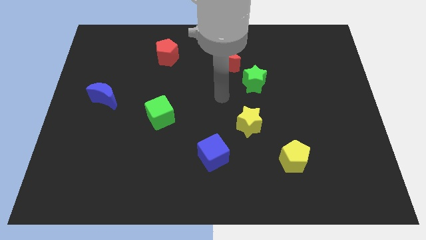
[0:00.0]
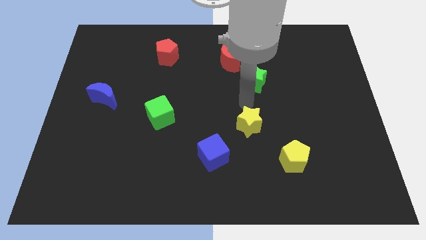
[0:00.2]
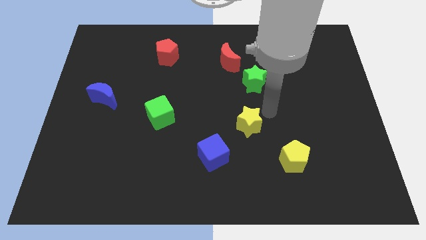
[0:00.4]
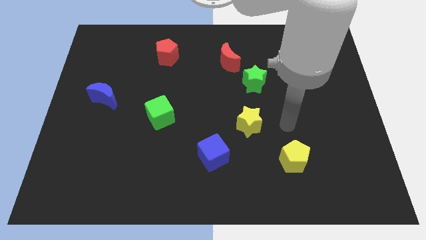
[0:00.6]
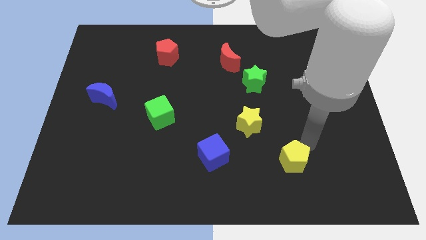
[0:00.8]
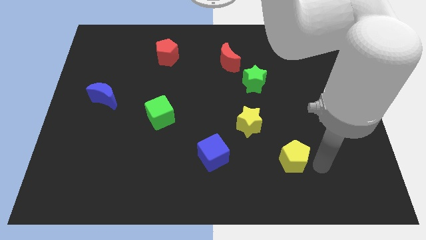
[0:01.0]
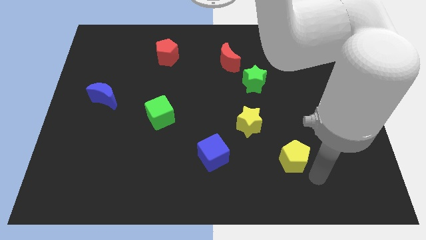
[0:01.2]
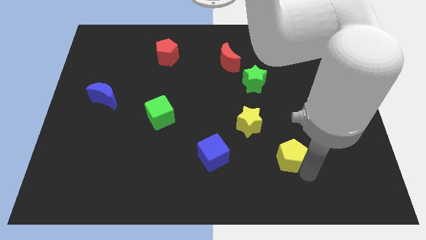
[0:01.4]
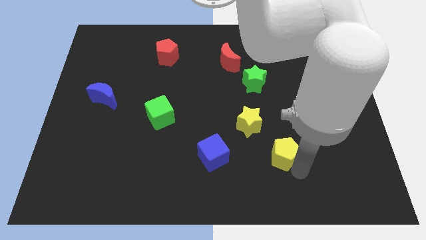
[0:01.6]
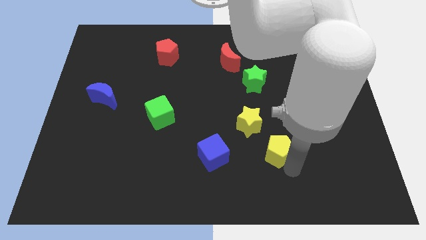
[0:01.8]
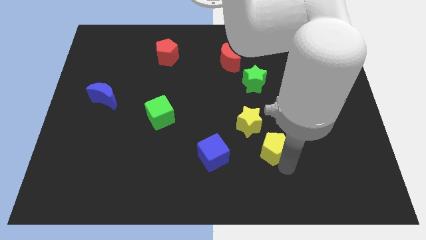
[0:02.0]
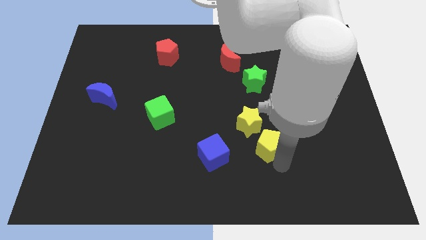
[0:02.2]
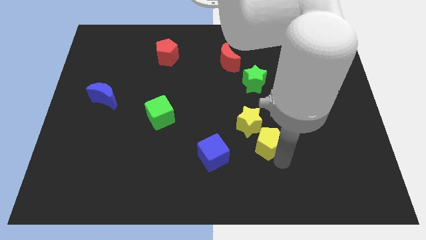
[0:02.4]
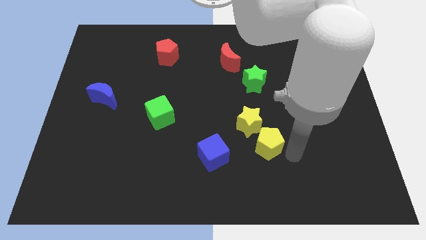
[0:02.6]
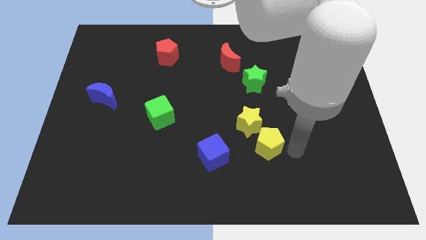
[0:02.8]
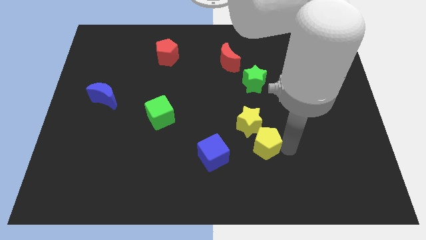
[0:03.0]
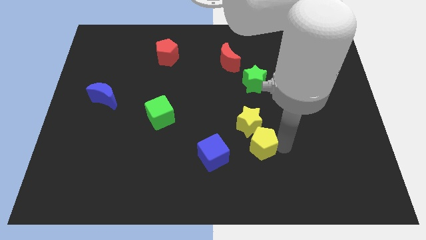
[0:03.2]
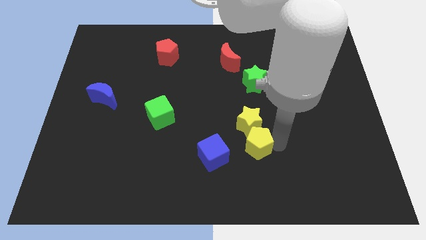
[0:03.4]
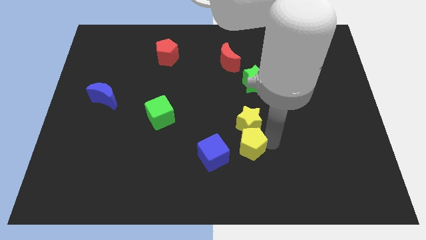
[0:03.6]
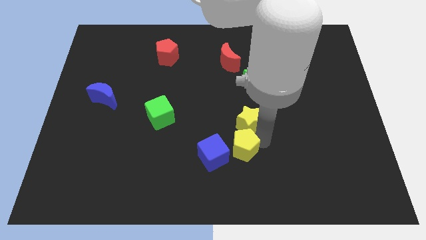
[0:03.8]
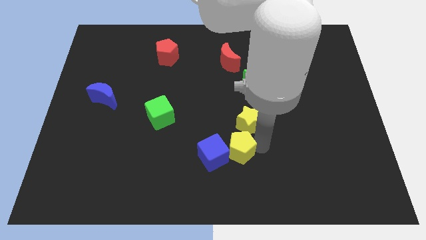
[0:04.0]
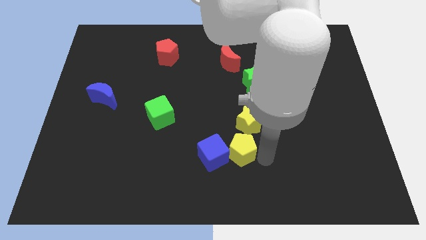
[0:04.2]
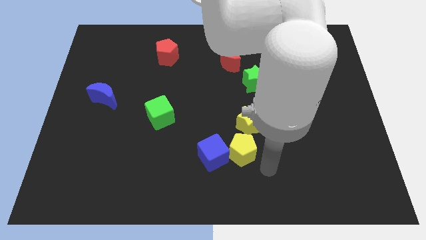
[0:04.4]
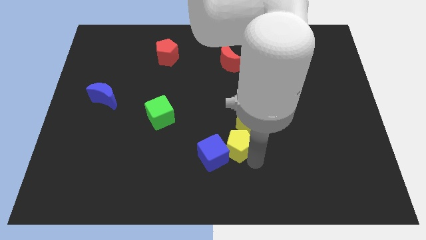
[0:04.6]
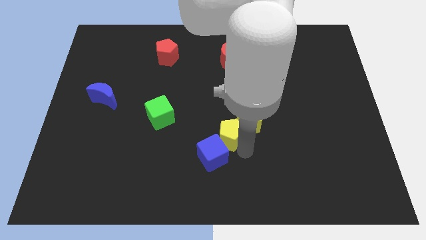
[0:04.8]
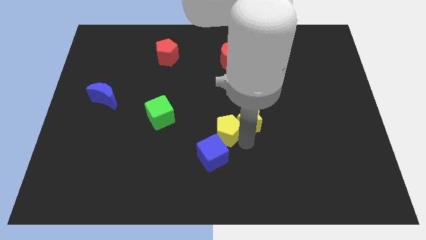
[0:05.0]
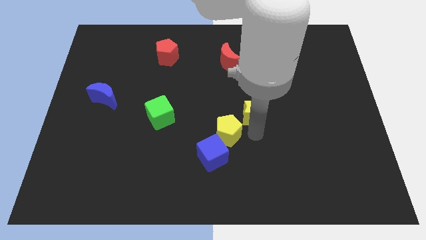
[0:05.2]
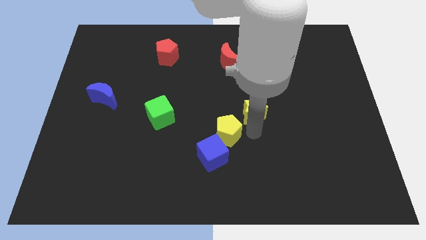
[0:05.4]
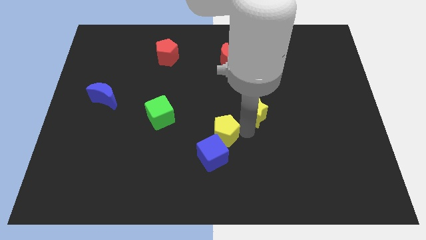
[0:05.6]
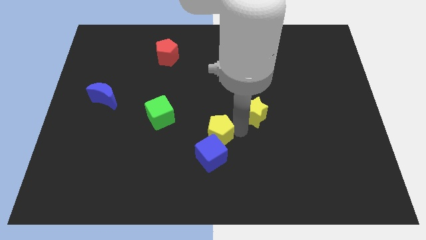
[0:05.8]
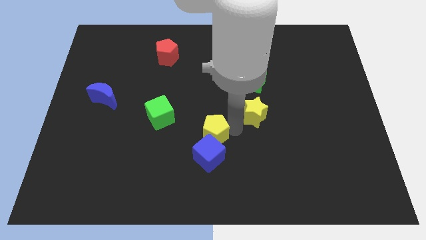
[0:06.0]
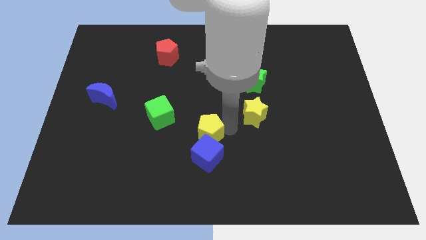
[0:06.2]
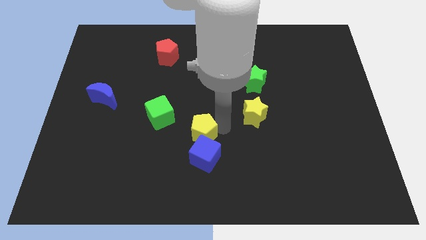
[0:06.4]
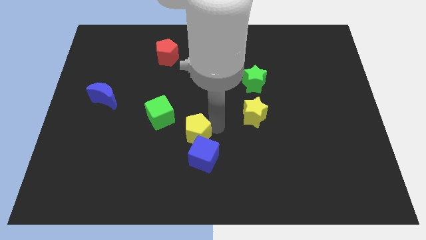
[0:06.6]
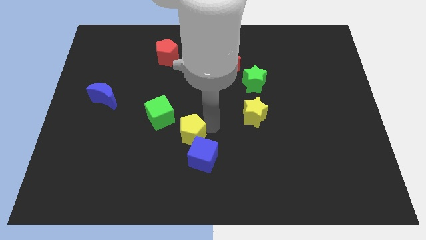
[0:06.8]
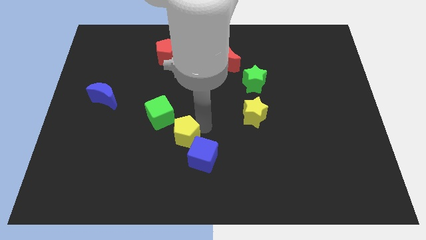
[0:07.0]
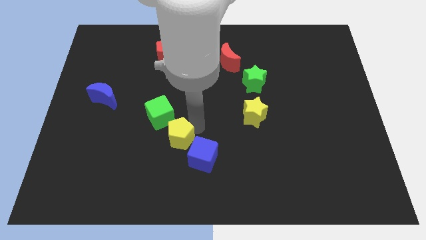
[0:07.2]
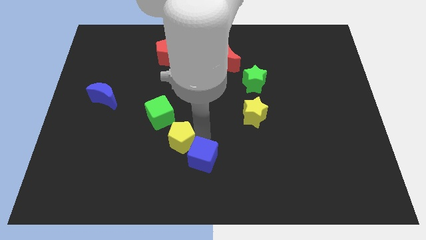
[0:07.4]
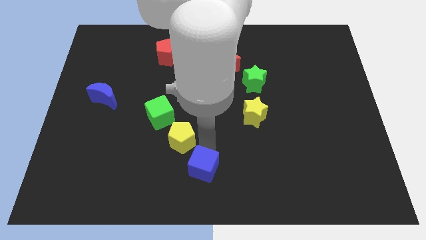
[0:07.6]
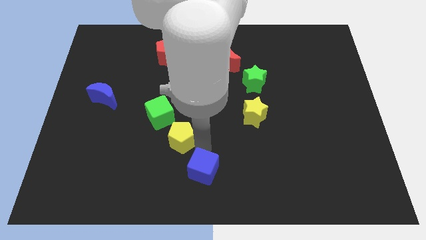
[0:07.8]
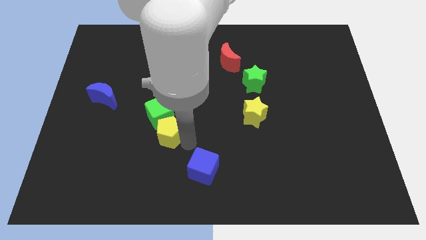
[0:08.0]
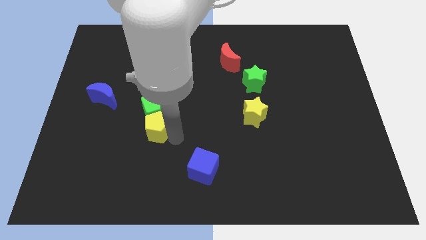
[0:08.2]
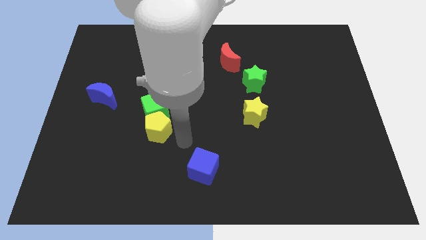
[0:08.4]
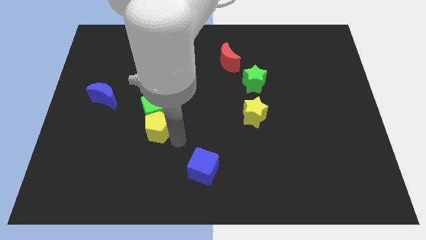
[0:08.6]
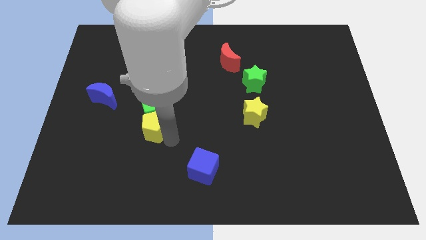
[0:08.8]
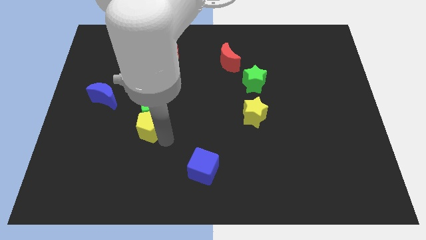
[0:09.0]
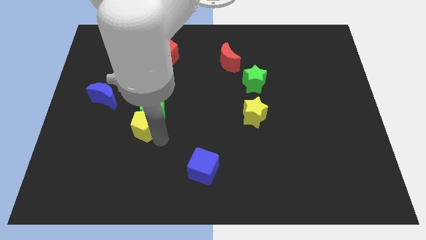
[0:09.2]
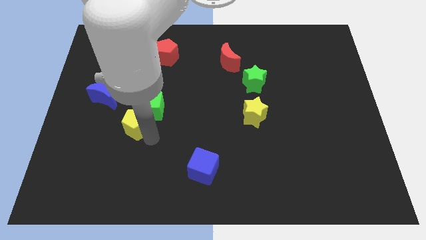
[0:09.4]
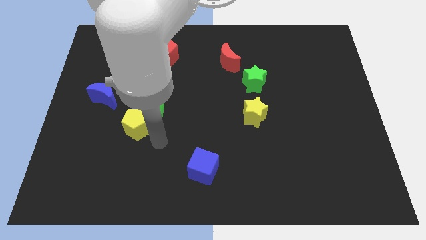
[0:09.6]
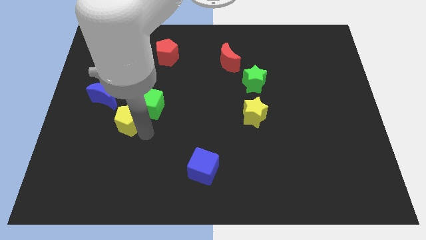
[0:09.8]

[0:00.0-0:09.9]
move the yellow pentagon left of the green cube

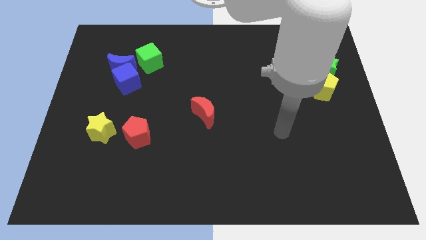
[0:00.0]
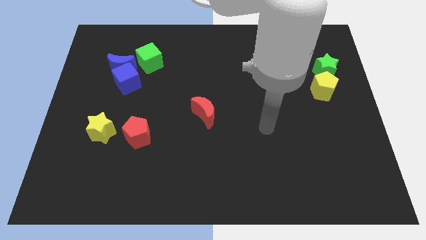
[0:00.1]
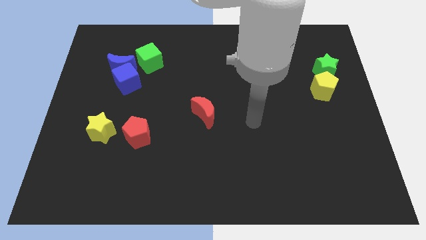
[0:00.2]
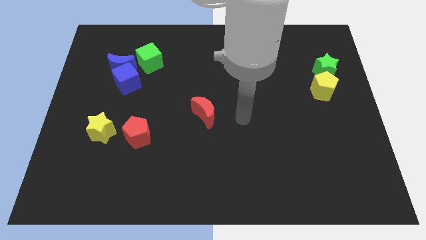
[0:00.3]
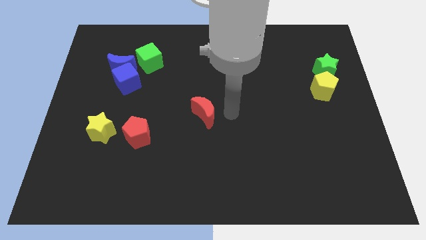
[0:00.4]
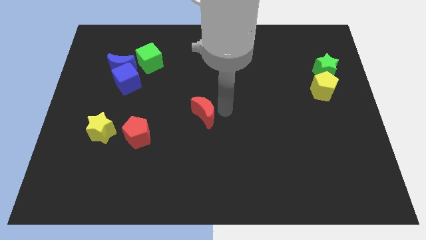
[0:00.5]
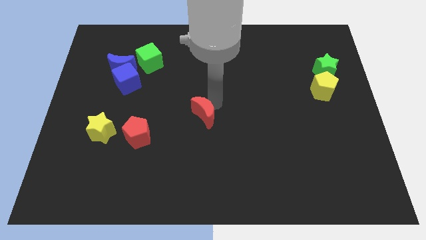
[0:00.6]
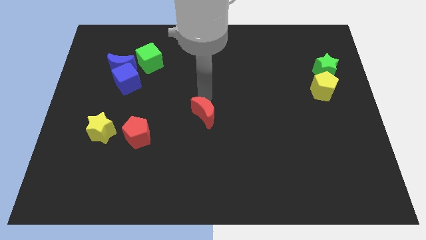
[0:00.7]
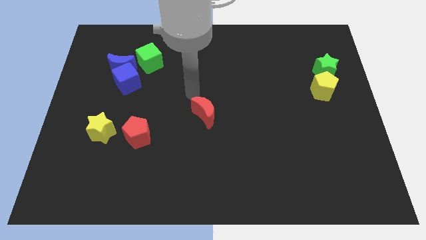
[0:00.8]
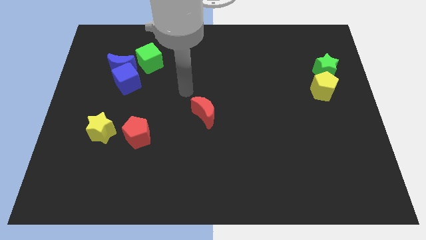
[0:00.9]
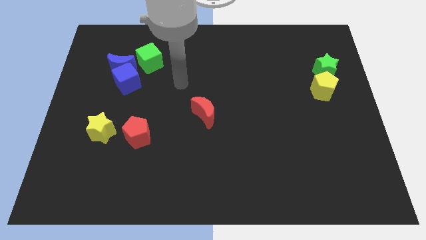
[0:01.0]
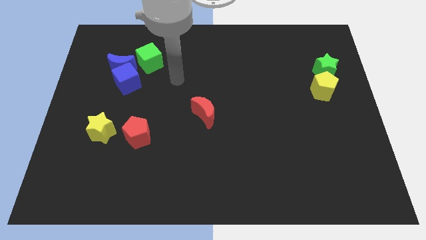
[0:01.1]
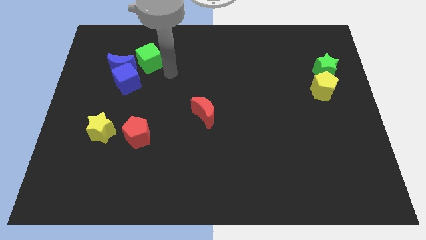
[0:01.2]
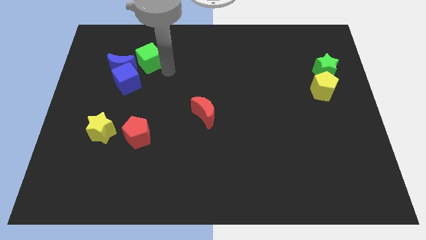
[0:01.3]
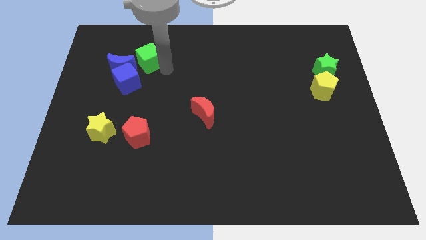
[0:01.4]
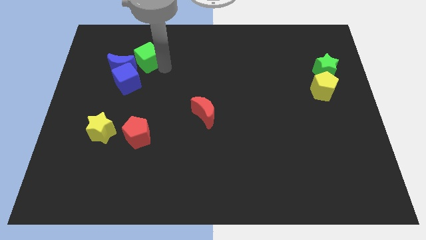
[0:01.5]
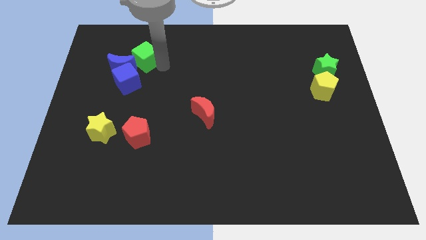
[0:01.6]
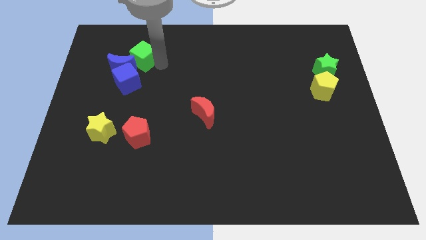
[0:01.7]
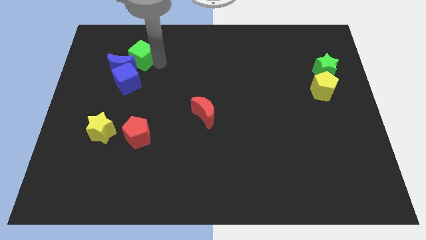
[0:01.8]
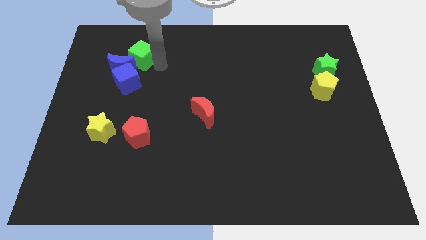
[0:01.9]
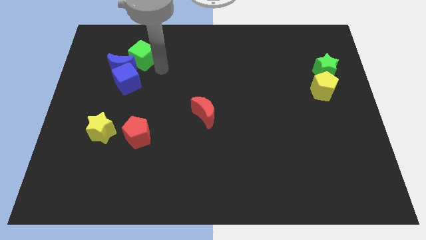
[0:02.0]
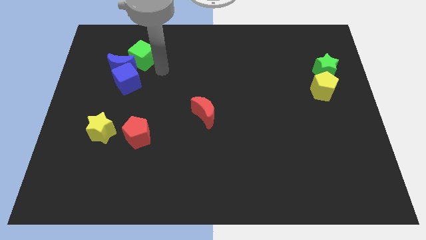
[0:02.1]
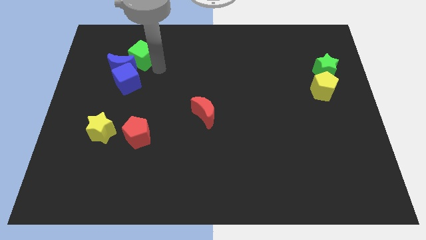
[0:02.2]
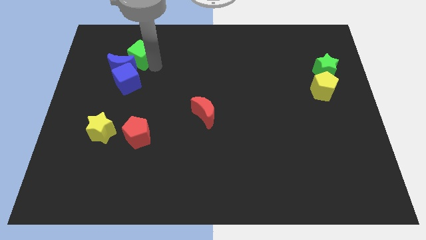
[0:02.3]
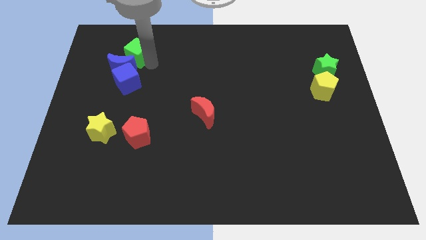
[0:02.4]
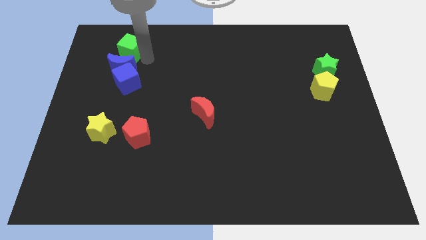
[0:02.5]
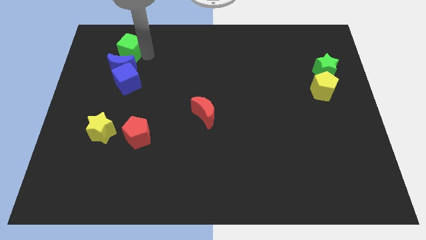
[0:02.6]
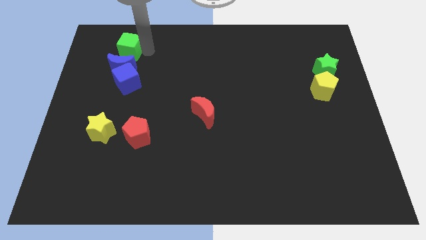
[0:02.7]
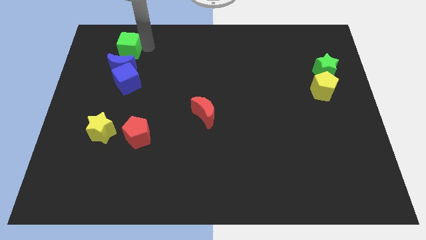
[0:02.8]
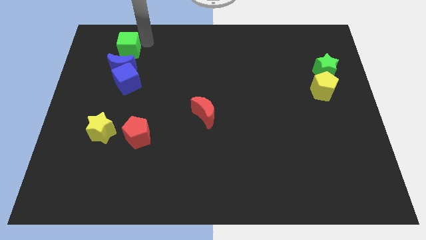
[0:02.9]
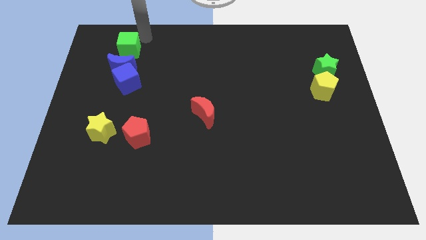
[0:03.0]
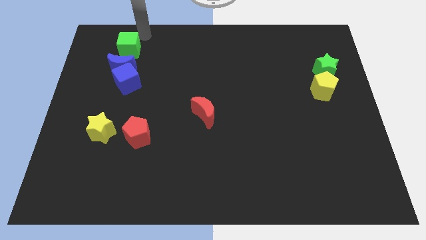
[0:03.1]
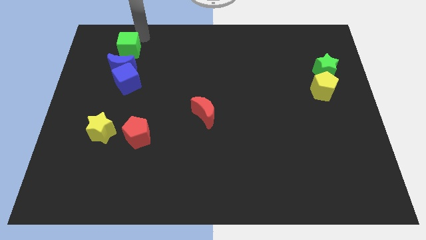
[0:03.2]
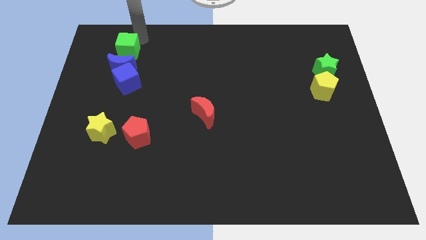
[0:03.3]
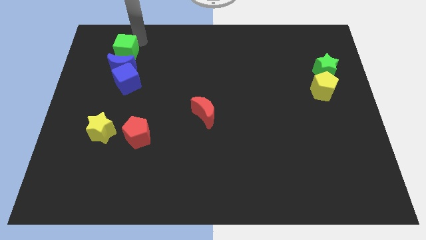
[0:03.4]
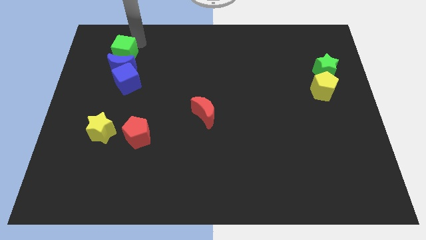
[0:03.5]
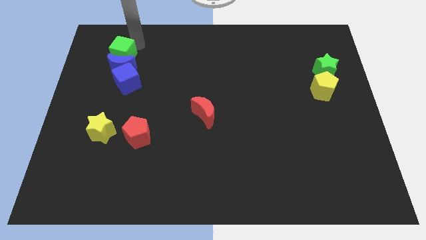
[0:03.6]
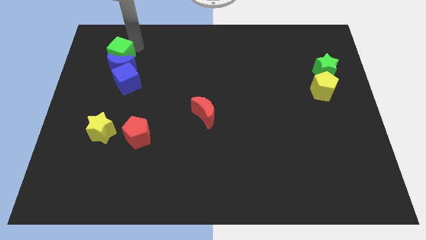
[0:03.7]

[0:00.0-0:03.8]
slide the green cube to the top left side of the blue cube
